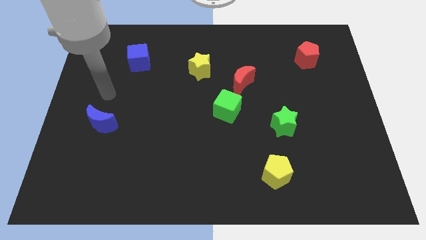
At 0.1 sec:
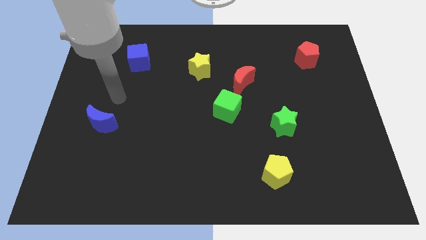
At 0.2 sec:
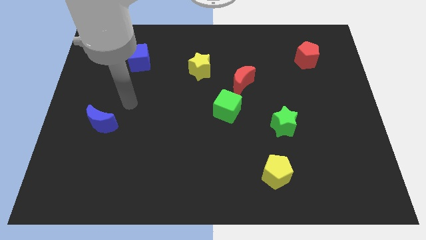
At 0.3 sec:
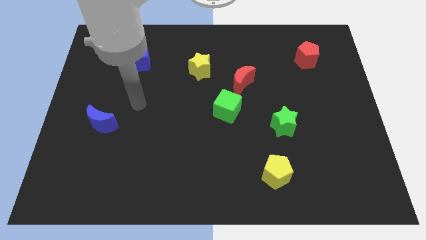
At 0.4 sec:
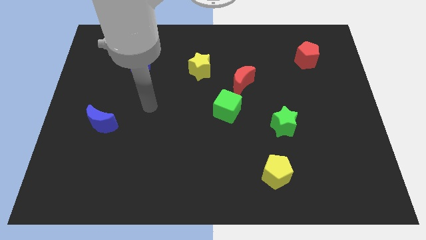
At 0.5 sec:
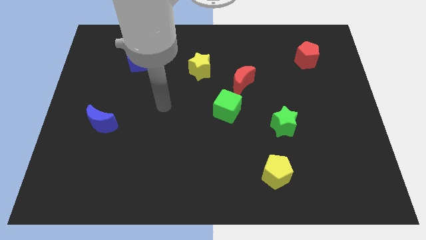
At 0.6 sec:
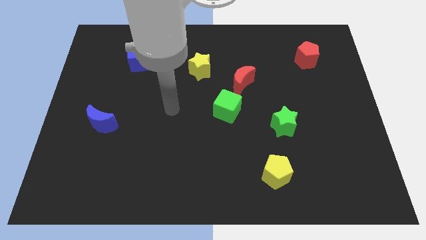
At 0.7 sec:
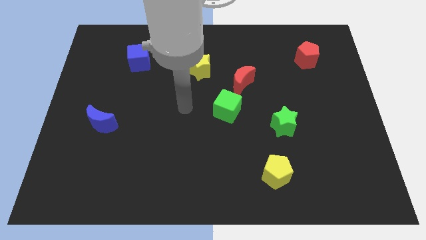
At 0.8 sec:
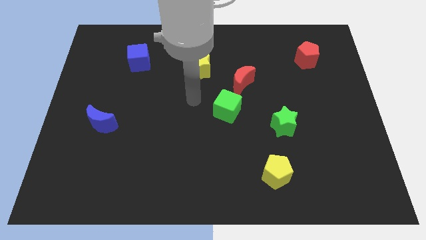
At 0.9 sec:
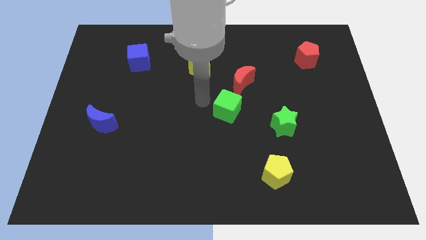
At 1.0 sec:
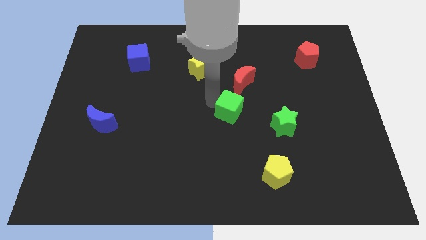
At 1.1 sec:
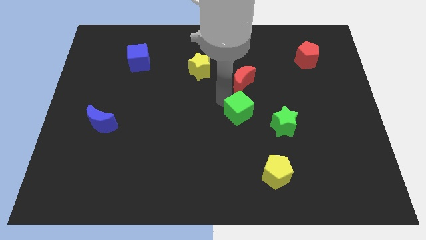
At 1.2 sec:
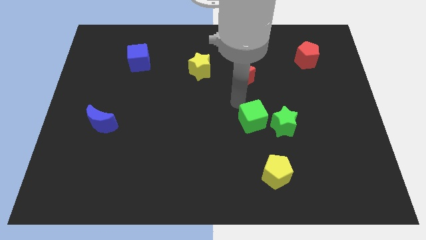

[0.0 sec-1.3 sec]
separate the red moon from the green cube

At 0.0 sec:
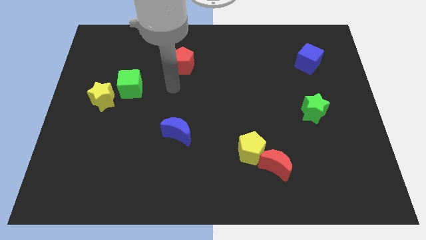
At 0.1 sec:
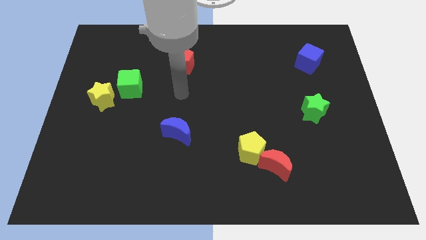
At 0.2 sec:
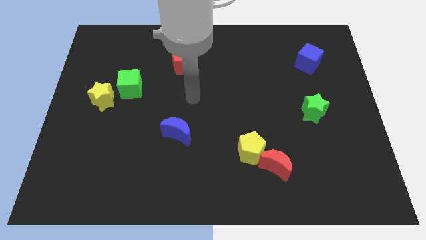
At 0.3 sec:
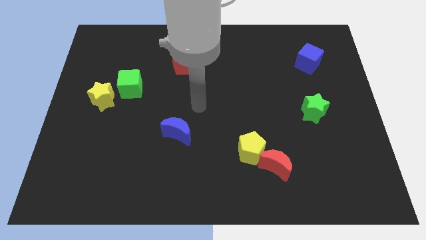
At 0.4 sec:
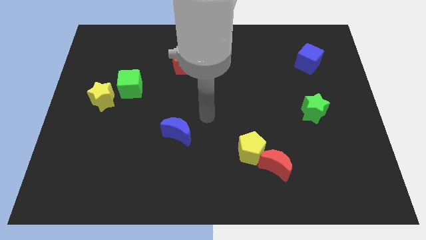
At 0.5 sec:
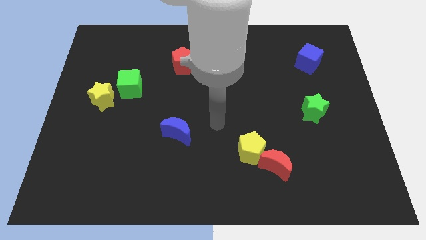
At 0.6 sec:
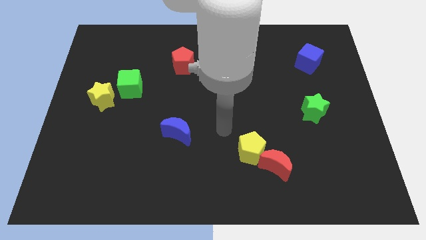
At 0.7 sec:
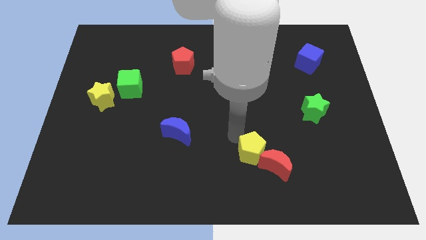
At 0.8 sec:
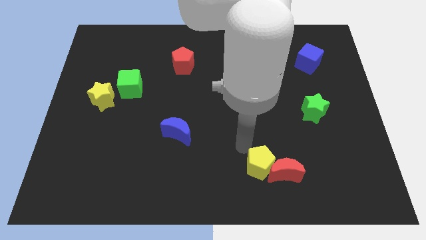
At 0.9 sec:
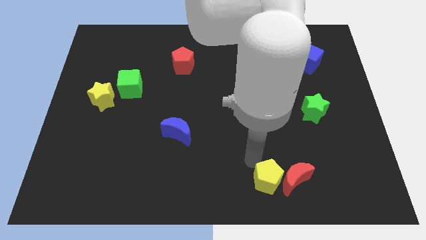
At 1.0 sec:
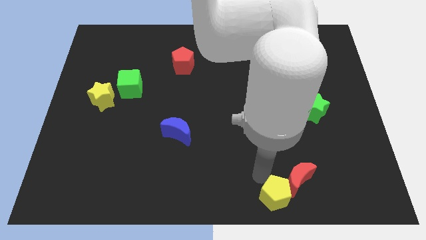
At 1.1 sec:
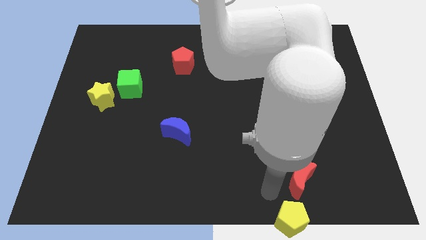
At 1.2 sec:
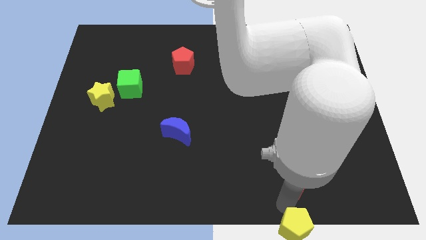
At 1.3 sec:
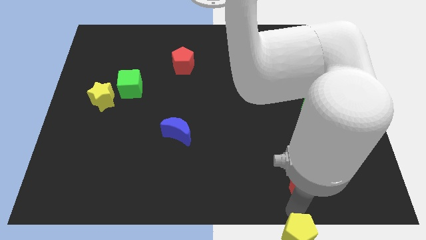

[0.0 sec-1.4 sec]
separate the red moon from the yellow pentagon

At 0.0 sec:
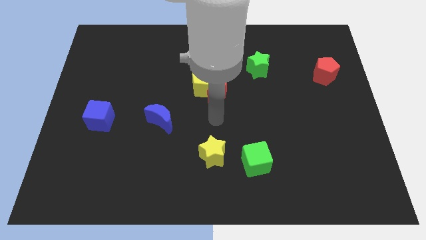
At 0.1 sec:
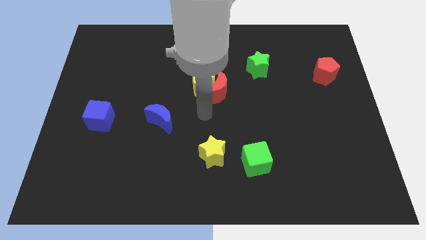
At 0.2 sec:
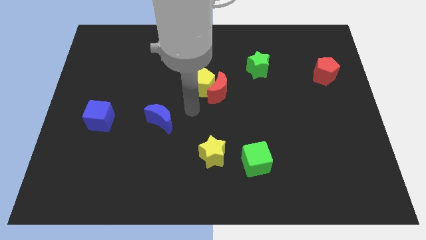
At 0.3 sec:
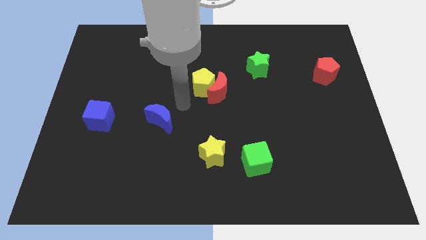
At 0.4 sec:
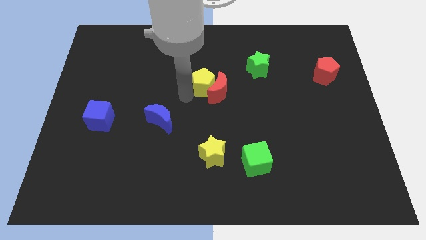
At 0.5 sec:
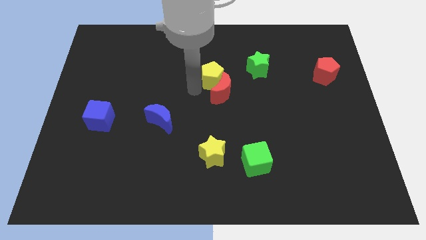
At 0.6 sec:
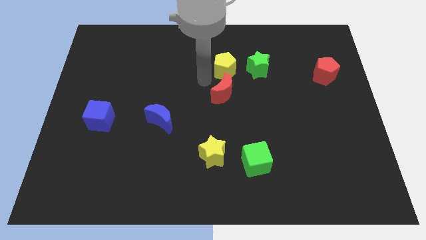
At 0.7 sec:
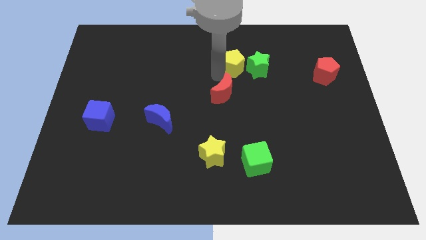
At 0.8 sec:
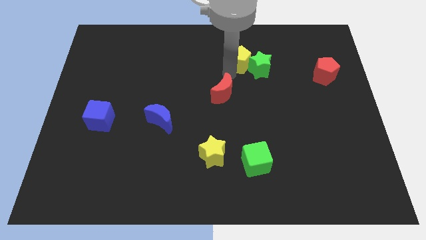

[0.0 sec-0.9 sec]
move the red moon away from the yellow pentagon

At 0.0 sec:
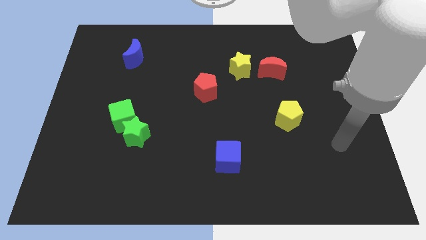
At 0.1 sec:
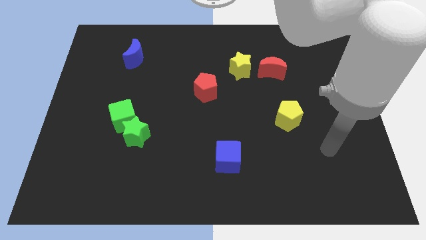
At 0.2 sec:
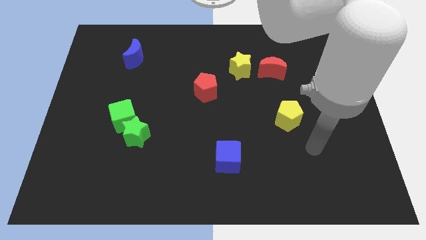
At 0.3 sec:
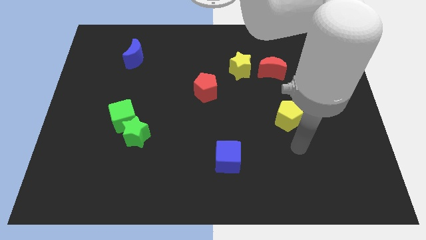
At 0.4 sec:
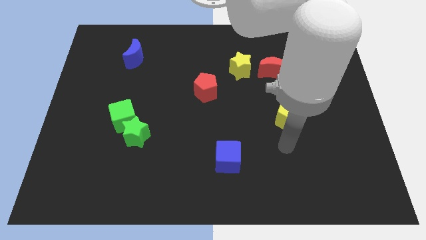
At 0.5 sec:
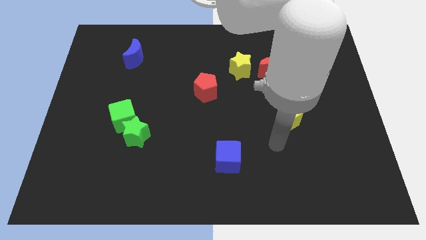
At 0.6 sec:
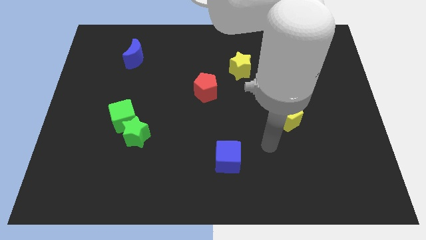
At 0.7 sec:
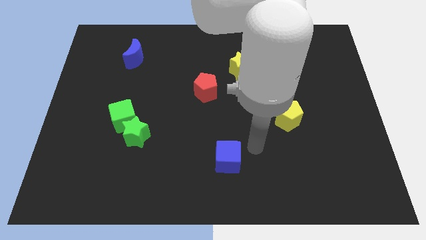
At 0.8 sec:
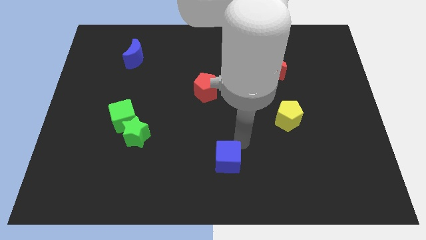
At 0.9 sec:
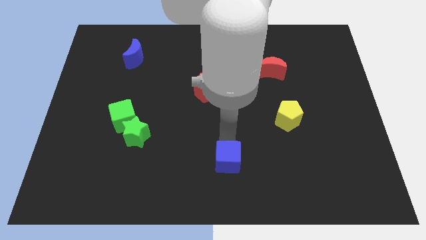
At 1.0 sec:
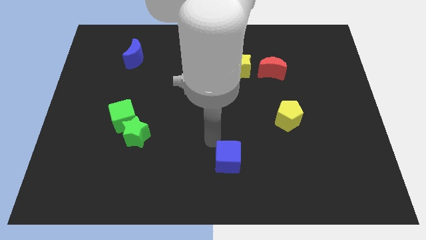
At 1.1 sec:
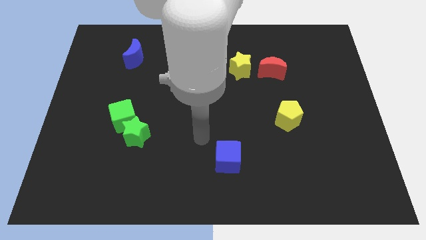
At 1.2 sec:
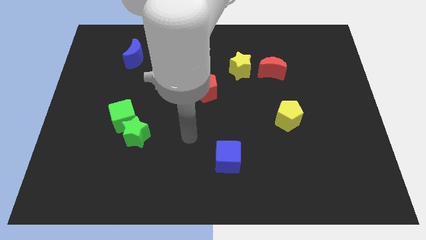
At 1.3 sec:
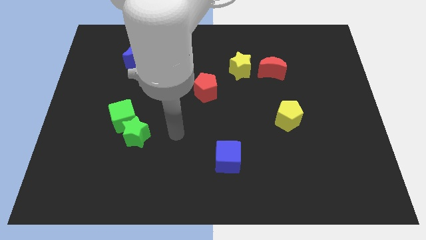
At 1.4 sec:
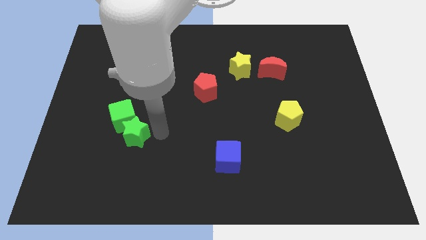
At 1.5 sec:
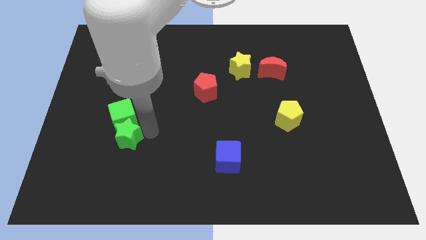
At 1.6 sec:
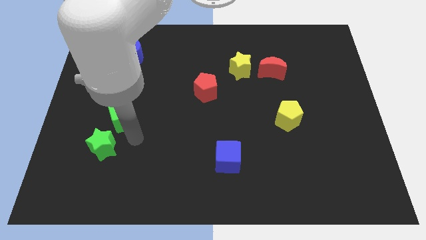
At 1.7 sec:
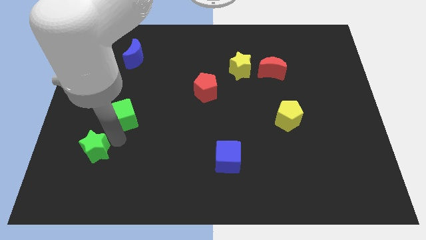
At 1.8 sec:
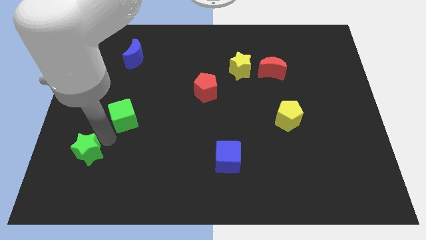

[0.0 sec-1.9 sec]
separate the green cube from the green star

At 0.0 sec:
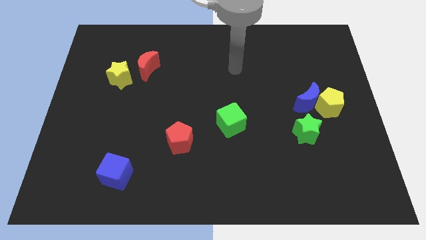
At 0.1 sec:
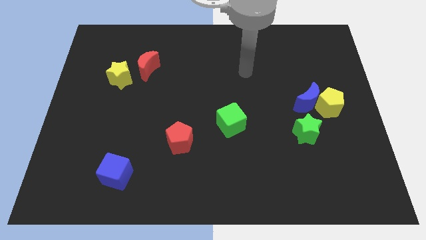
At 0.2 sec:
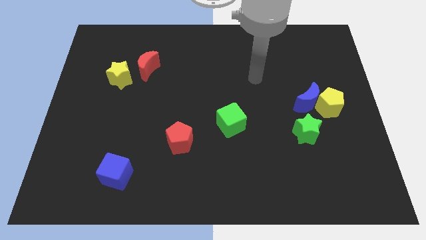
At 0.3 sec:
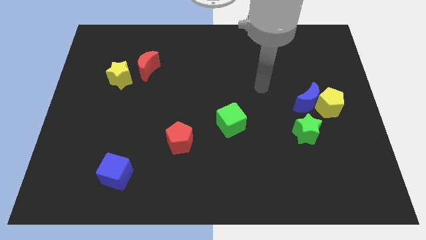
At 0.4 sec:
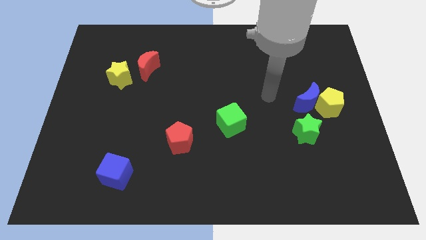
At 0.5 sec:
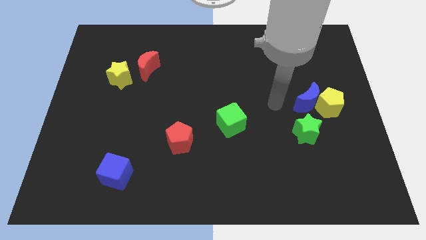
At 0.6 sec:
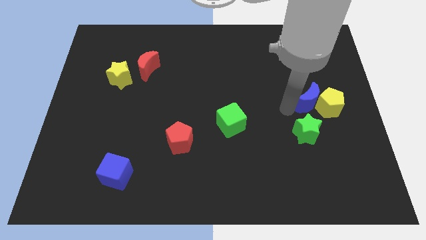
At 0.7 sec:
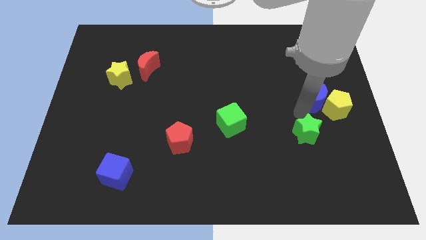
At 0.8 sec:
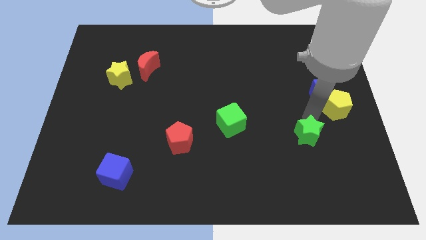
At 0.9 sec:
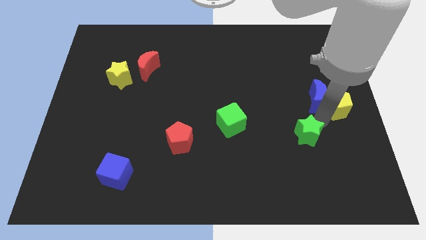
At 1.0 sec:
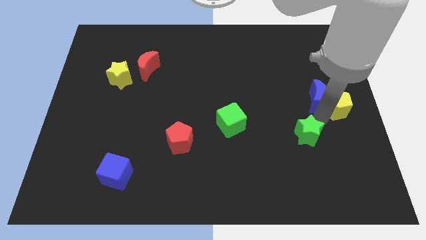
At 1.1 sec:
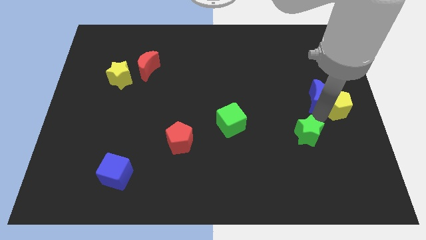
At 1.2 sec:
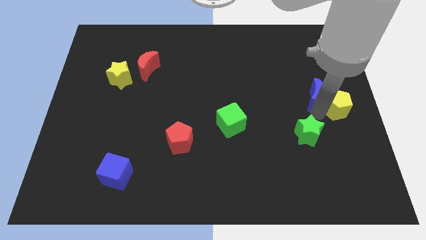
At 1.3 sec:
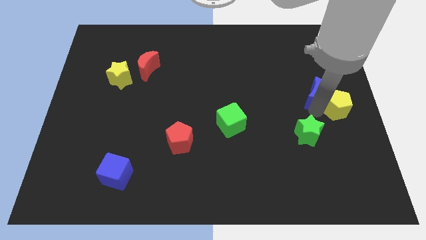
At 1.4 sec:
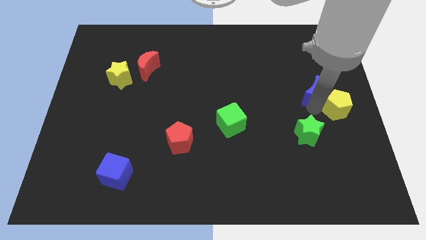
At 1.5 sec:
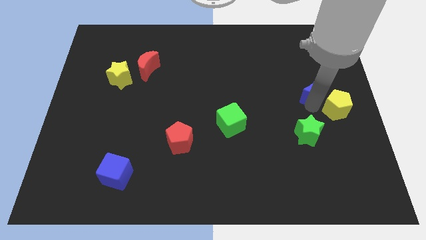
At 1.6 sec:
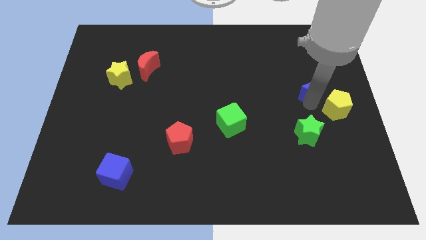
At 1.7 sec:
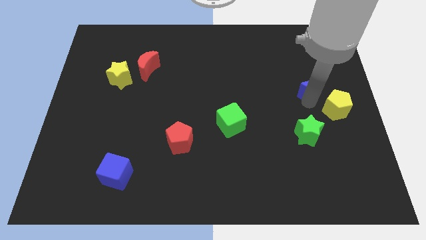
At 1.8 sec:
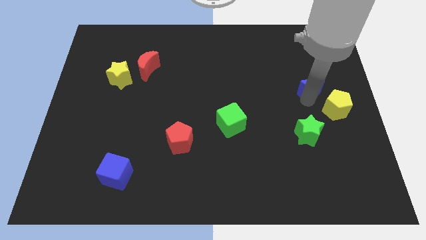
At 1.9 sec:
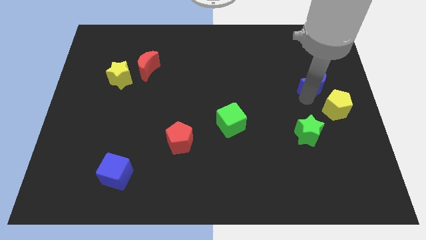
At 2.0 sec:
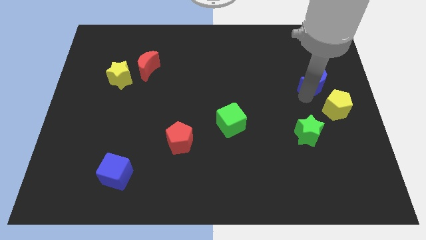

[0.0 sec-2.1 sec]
pull the blue moon apart from the yellow pentagon and green star

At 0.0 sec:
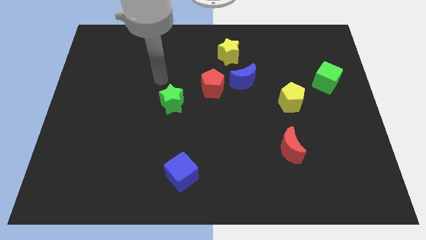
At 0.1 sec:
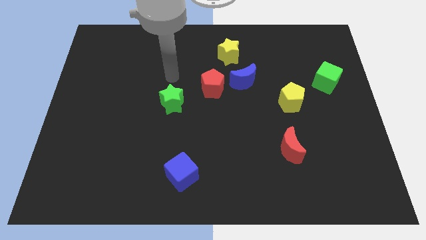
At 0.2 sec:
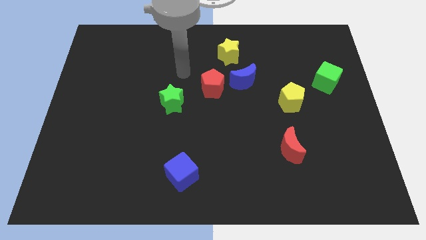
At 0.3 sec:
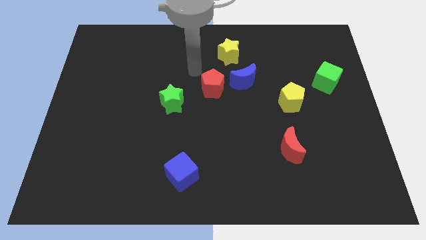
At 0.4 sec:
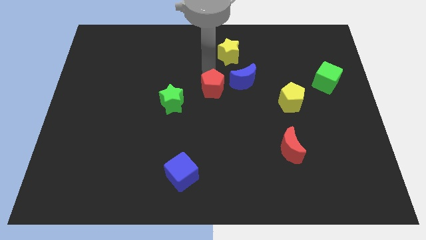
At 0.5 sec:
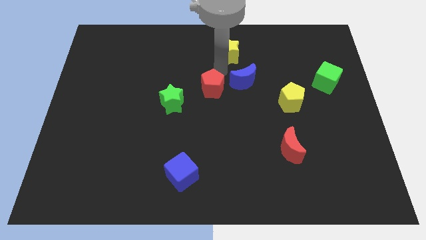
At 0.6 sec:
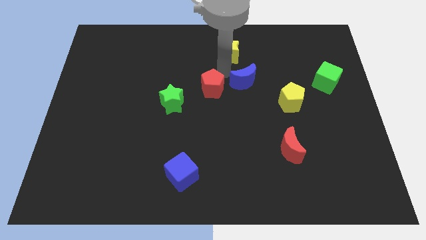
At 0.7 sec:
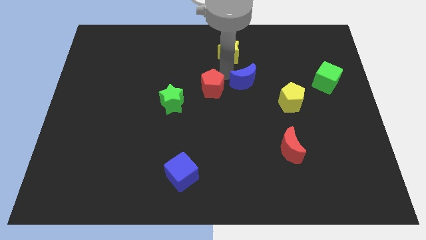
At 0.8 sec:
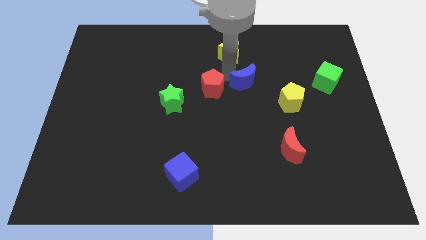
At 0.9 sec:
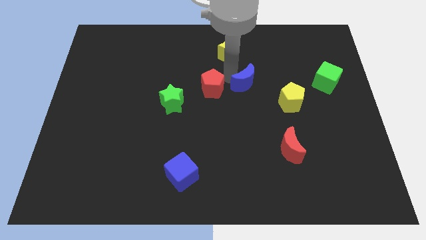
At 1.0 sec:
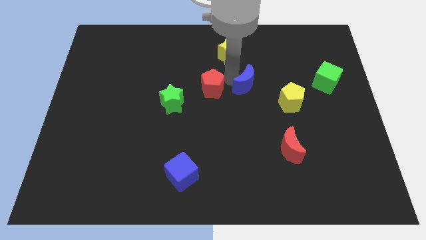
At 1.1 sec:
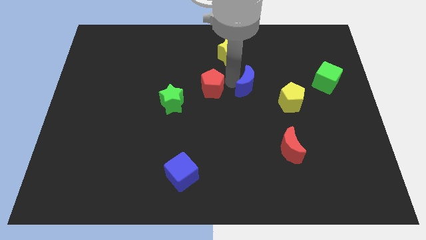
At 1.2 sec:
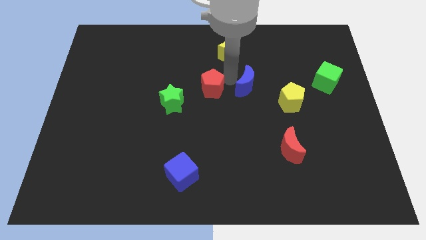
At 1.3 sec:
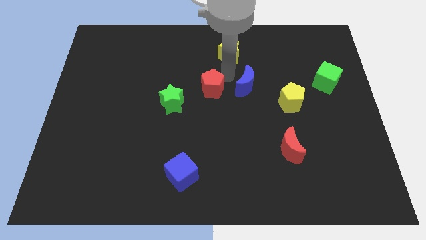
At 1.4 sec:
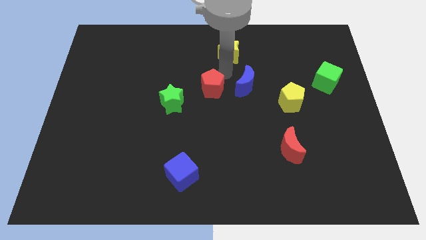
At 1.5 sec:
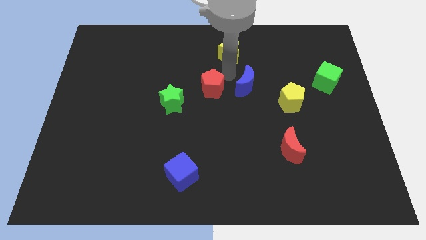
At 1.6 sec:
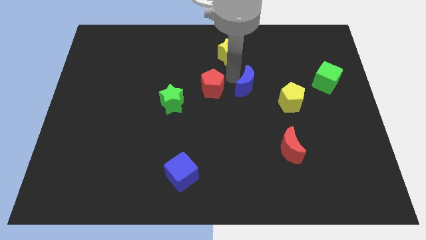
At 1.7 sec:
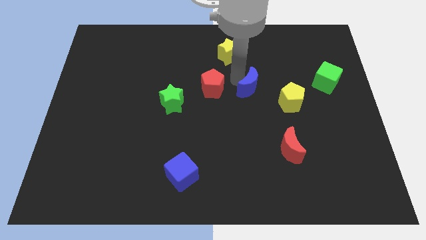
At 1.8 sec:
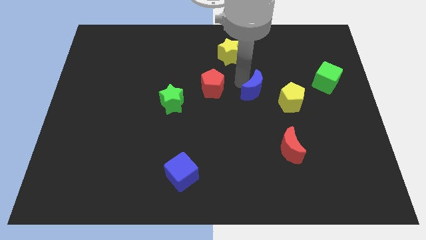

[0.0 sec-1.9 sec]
move the blue moon away from the red pentagon and yellow star
